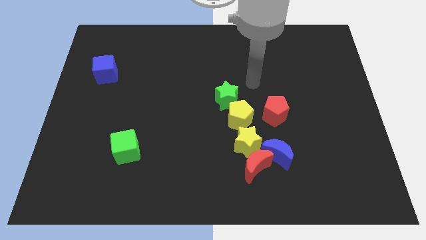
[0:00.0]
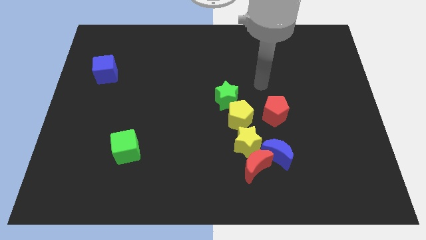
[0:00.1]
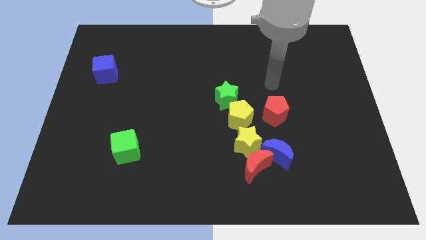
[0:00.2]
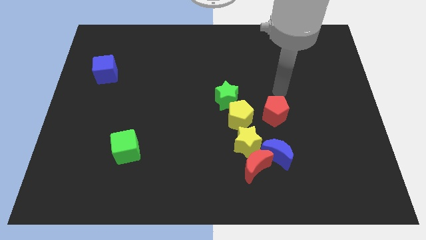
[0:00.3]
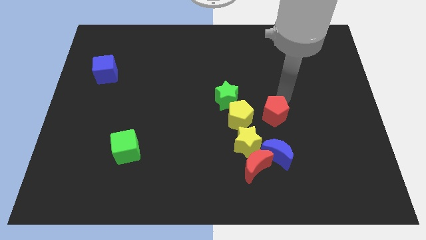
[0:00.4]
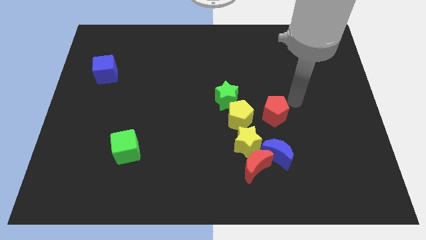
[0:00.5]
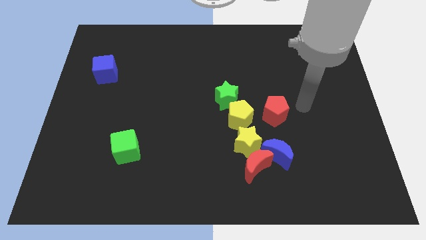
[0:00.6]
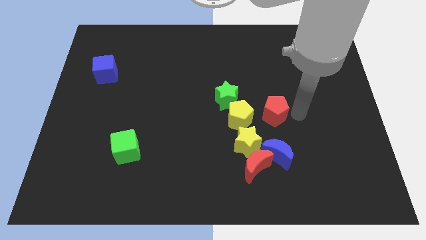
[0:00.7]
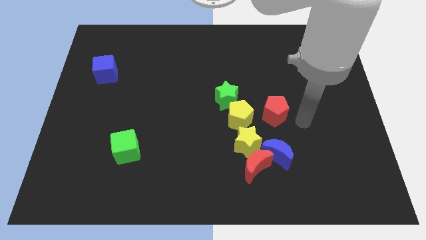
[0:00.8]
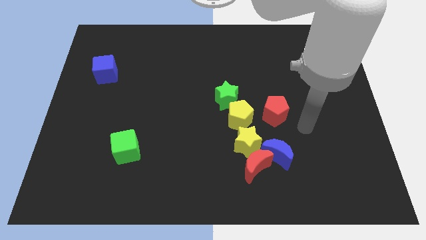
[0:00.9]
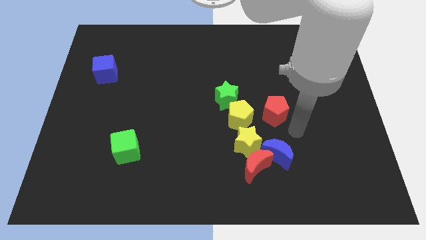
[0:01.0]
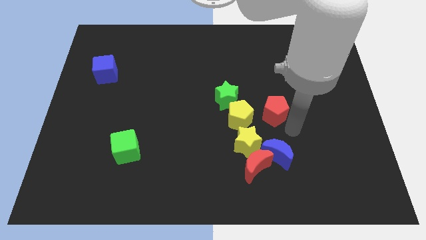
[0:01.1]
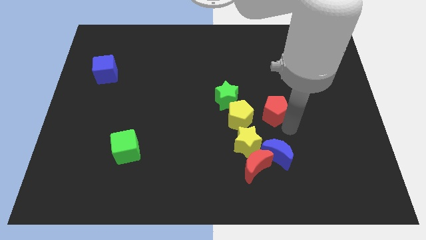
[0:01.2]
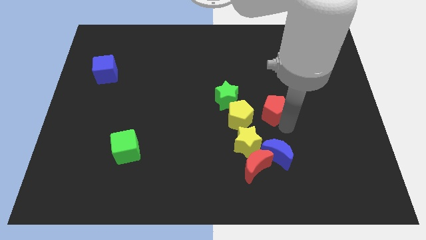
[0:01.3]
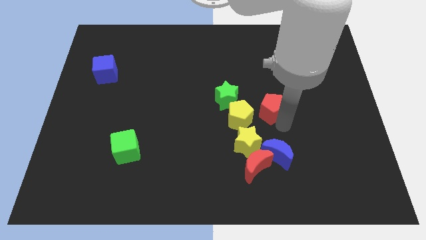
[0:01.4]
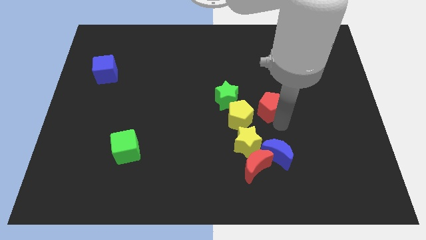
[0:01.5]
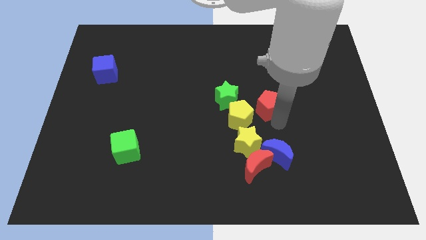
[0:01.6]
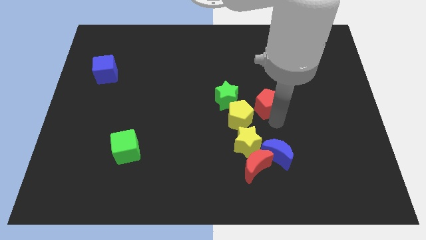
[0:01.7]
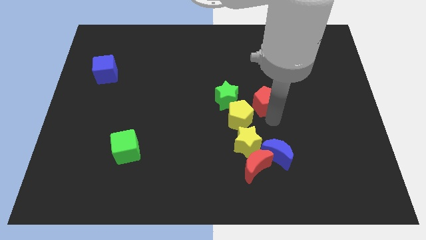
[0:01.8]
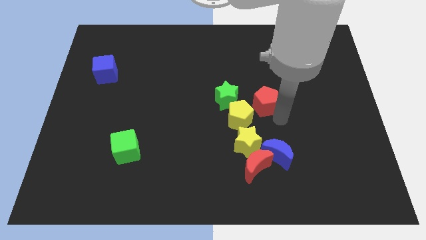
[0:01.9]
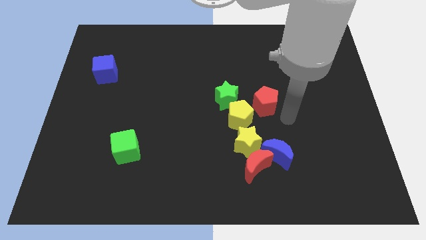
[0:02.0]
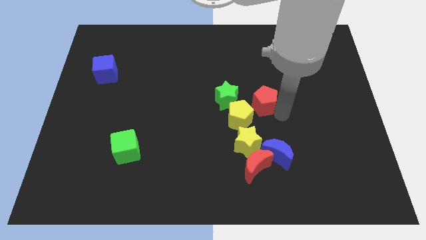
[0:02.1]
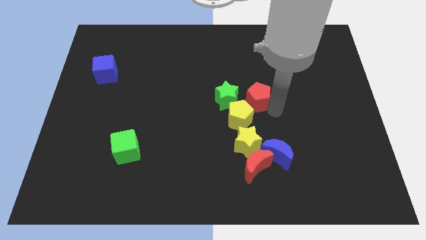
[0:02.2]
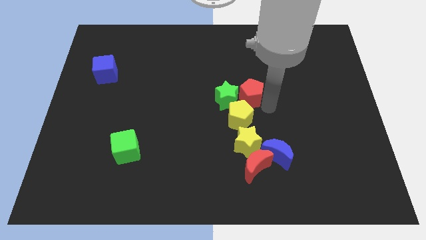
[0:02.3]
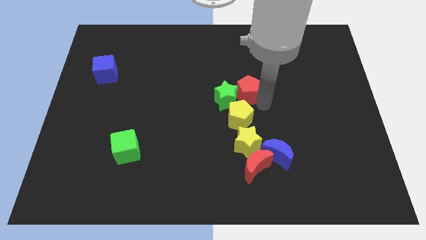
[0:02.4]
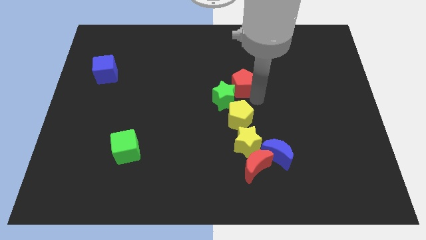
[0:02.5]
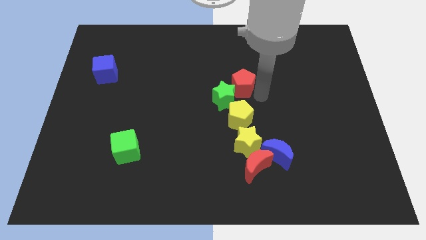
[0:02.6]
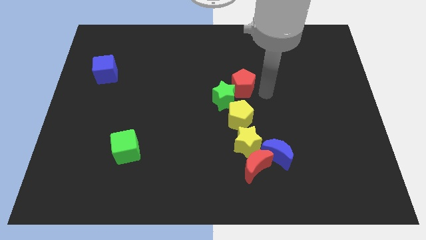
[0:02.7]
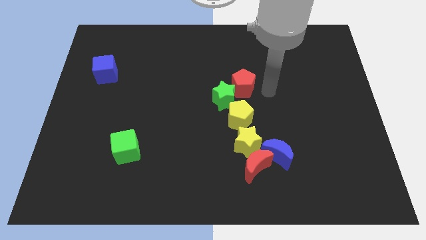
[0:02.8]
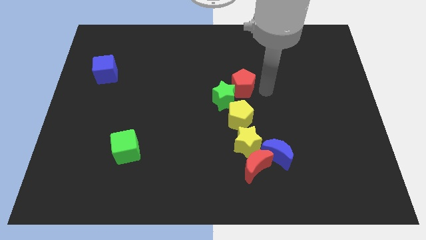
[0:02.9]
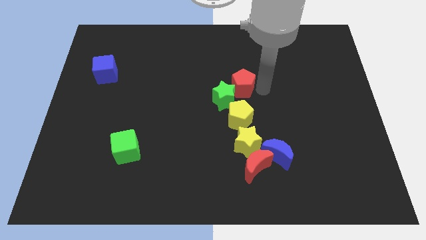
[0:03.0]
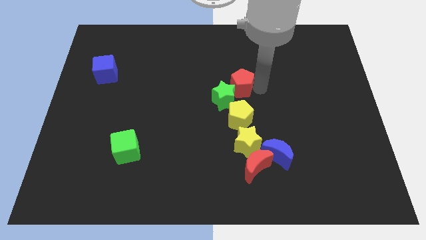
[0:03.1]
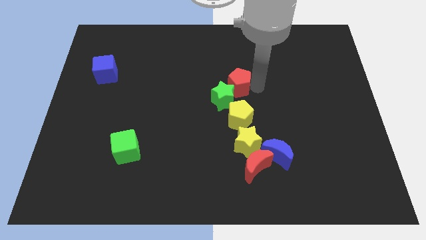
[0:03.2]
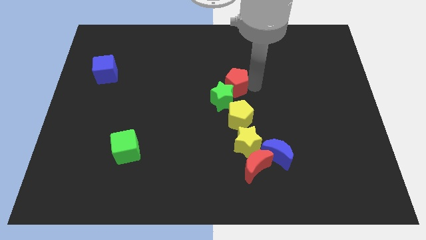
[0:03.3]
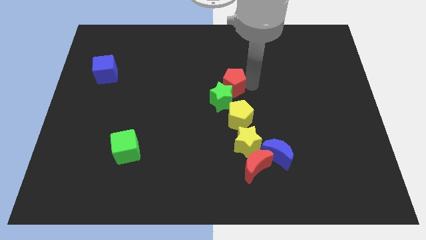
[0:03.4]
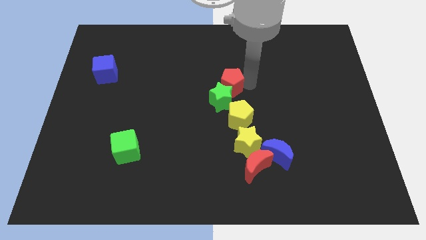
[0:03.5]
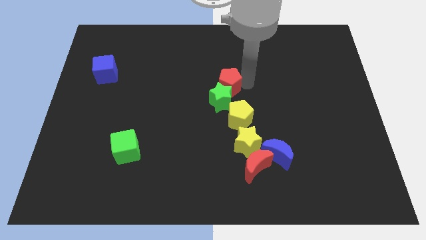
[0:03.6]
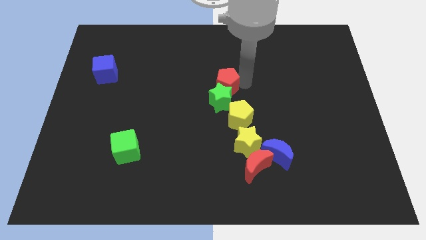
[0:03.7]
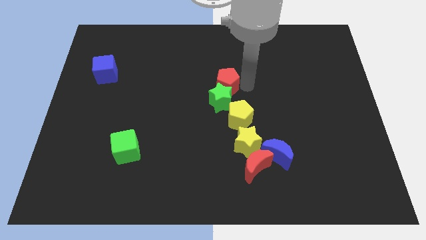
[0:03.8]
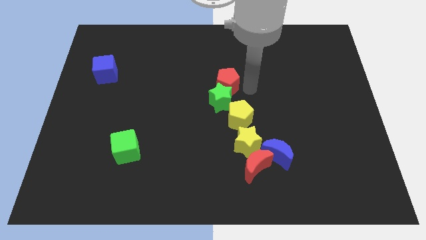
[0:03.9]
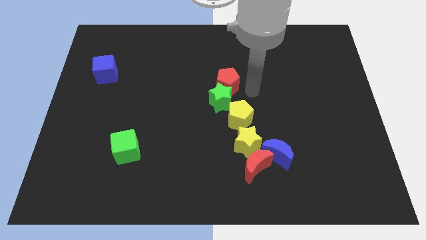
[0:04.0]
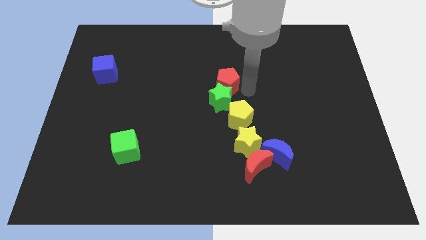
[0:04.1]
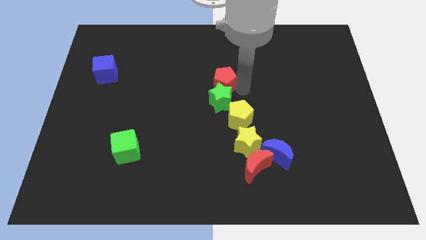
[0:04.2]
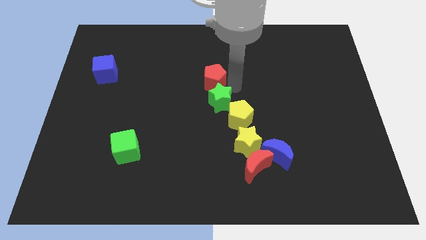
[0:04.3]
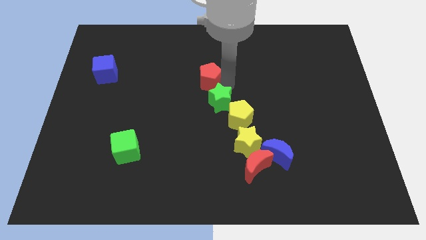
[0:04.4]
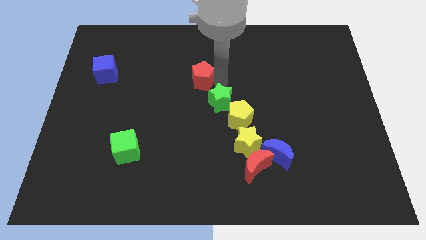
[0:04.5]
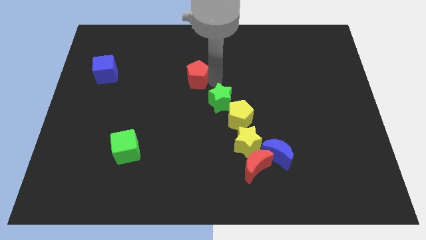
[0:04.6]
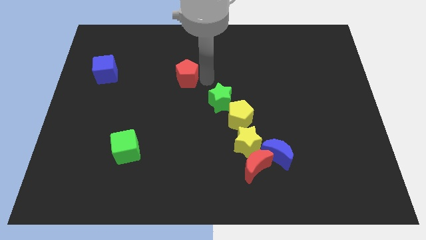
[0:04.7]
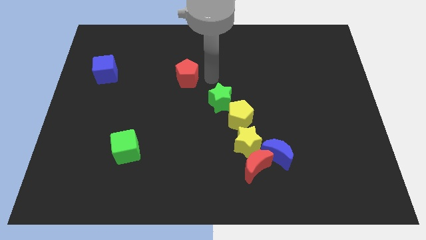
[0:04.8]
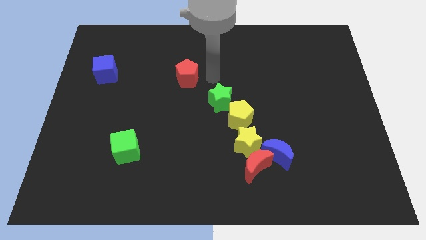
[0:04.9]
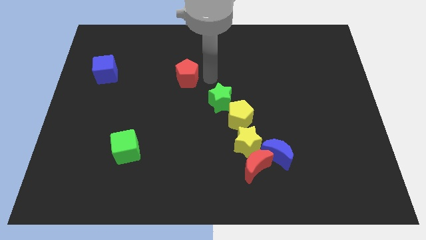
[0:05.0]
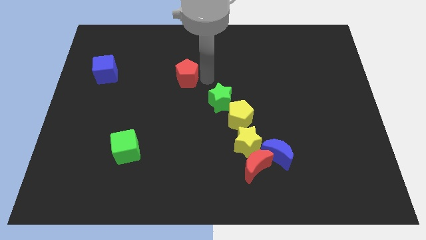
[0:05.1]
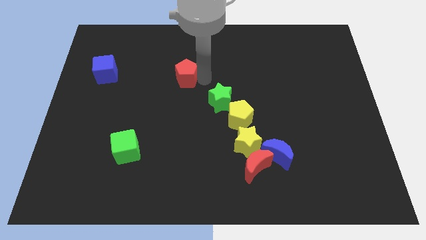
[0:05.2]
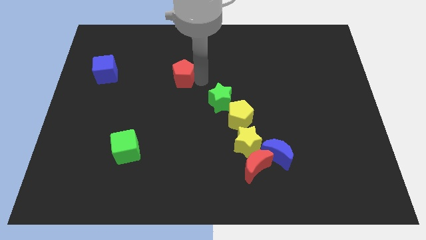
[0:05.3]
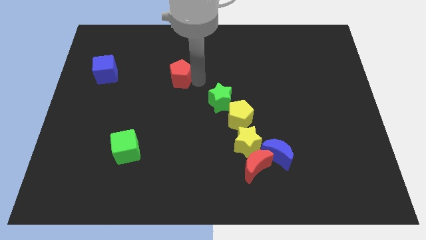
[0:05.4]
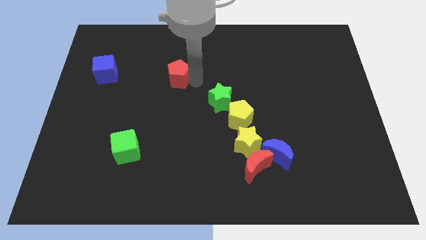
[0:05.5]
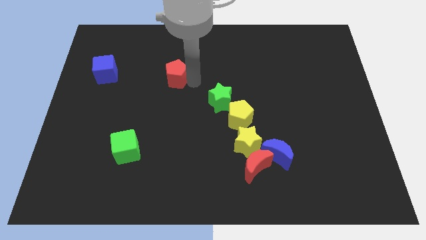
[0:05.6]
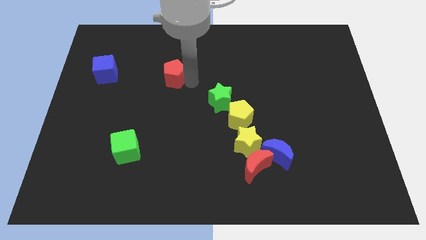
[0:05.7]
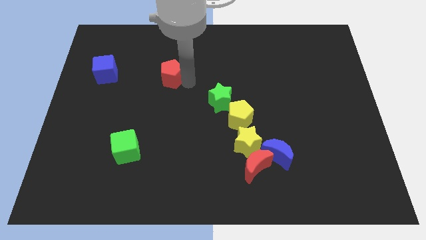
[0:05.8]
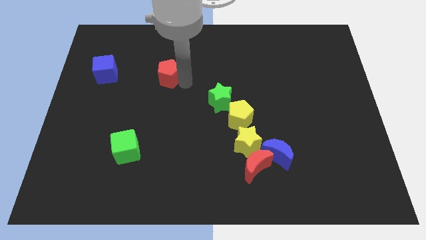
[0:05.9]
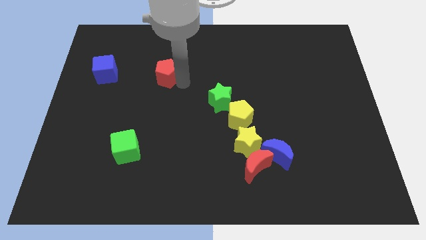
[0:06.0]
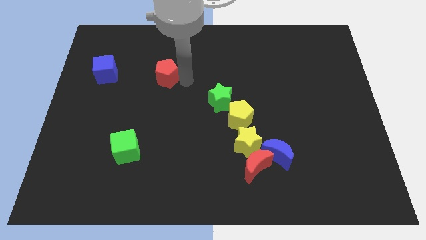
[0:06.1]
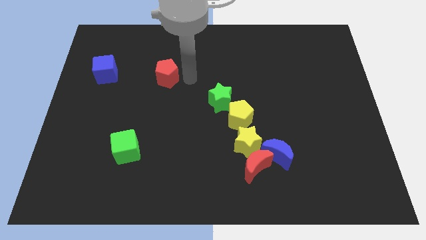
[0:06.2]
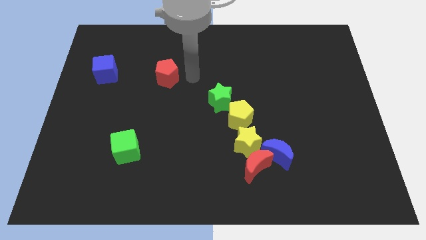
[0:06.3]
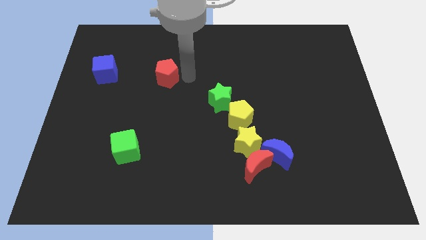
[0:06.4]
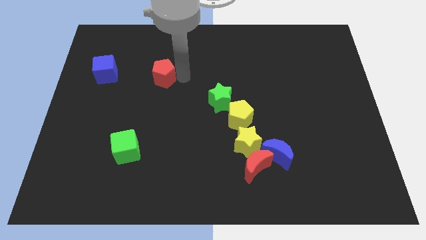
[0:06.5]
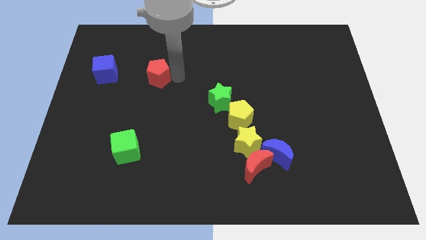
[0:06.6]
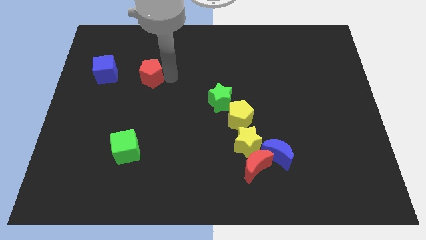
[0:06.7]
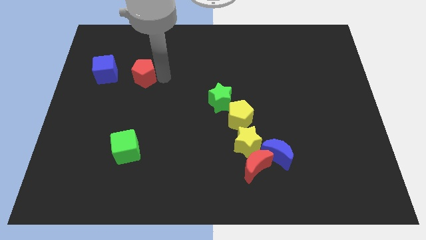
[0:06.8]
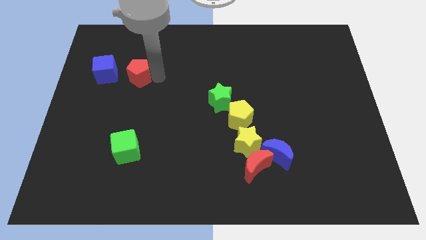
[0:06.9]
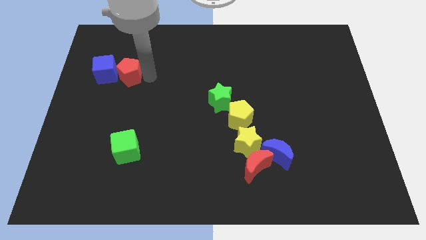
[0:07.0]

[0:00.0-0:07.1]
move the red pentagon next to the blue cube
